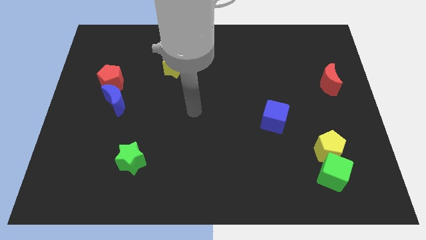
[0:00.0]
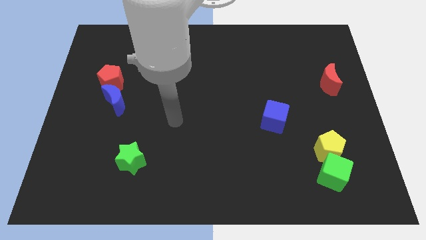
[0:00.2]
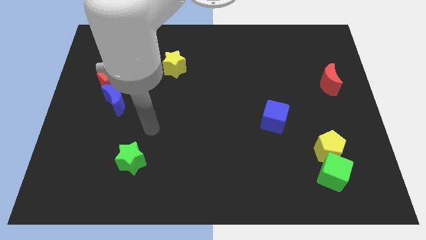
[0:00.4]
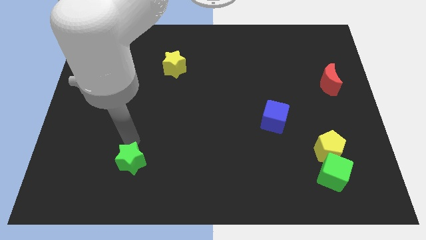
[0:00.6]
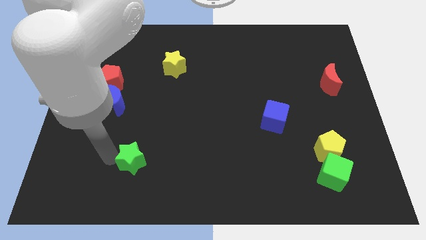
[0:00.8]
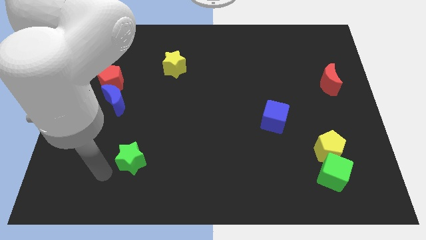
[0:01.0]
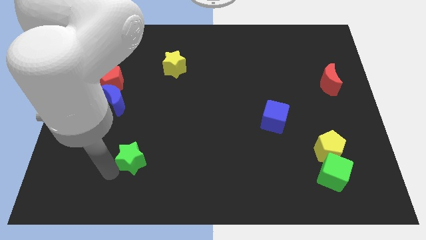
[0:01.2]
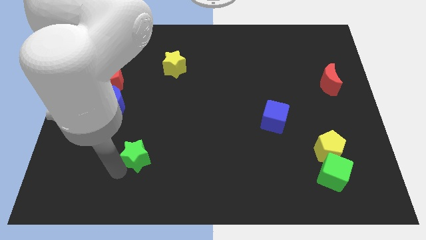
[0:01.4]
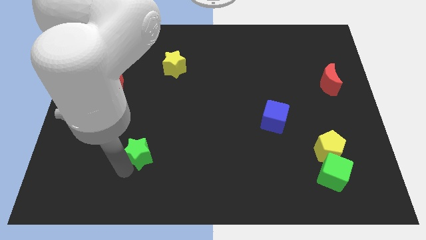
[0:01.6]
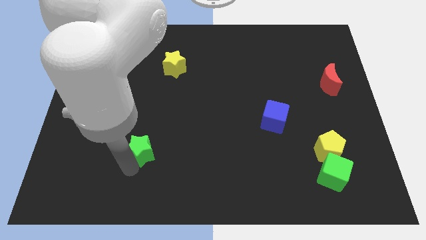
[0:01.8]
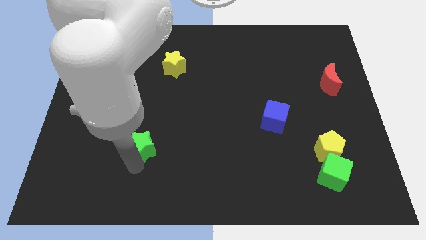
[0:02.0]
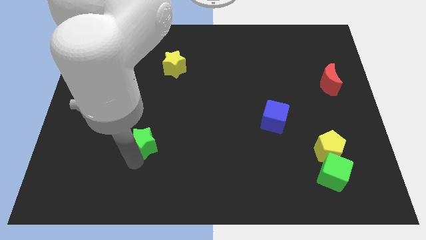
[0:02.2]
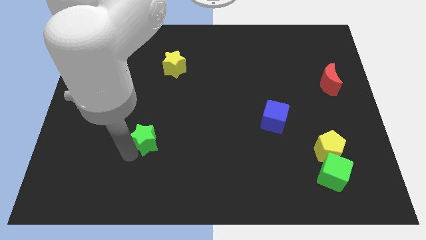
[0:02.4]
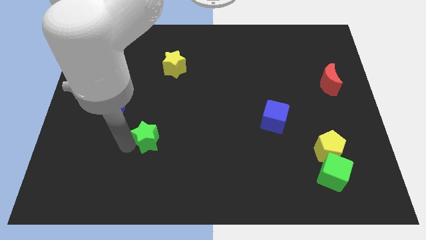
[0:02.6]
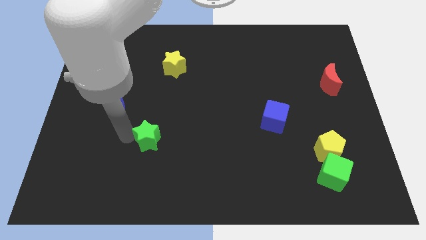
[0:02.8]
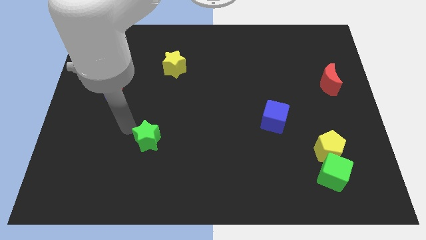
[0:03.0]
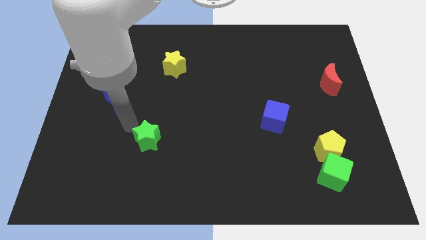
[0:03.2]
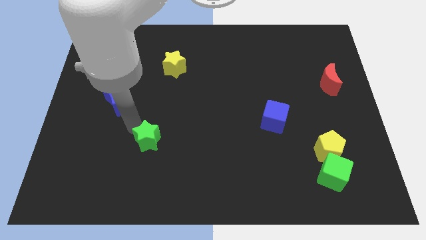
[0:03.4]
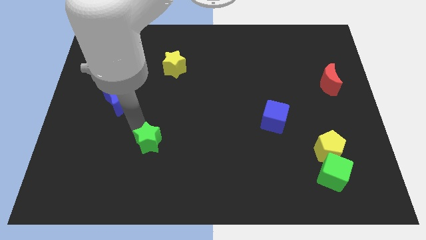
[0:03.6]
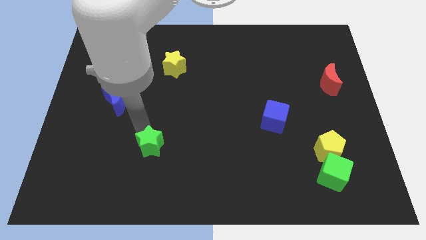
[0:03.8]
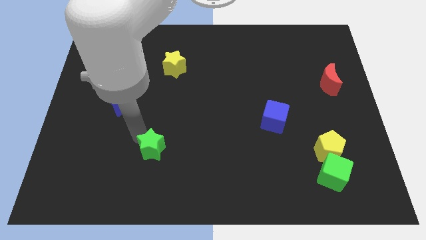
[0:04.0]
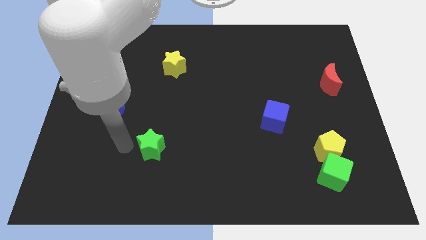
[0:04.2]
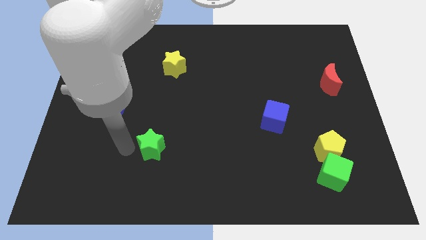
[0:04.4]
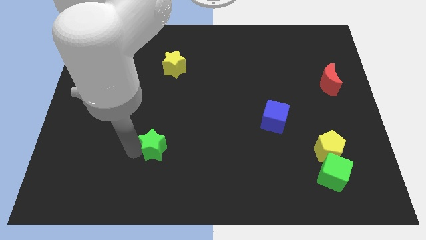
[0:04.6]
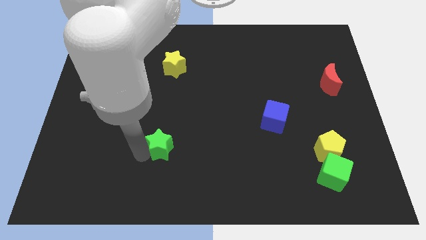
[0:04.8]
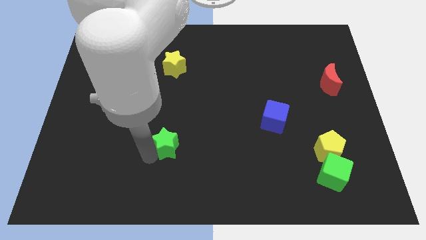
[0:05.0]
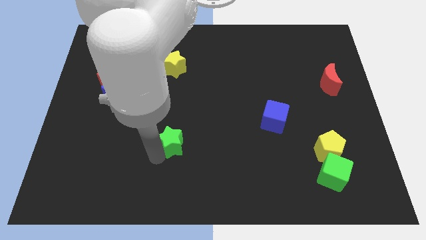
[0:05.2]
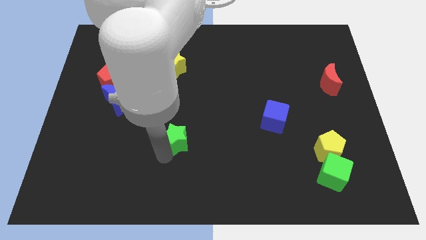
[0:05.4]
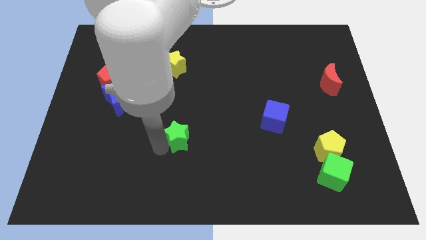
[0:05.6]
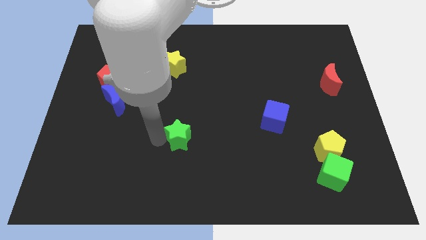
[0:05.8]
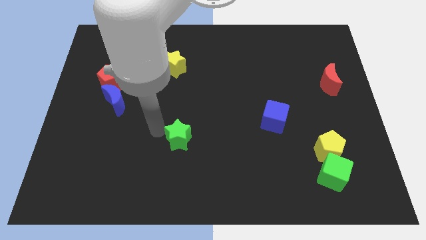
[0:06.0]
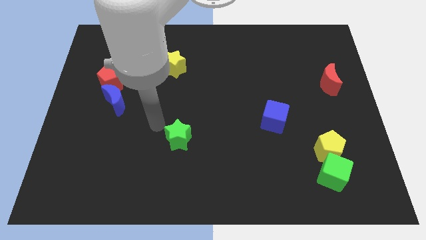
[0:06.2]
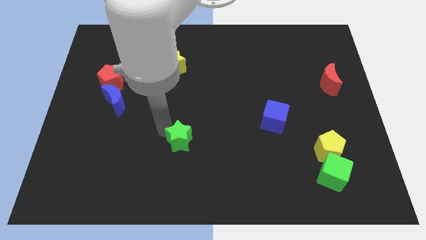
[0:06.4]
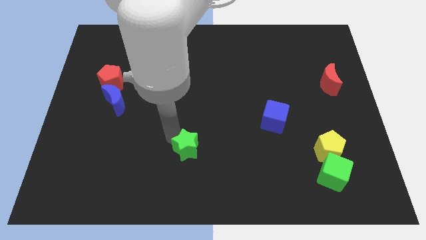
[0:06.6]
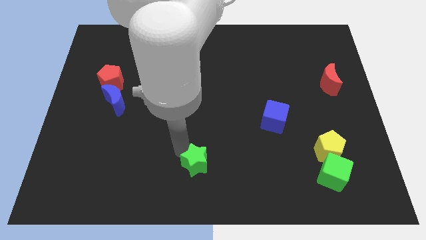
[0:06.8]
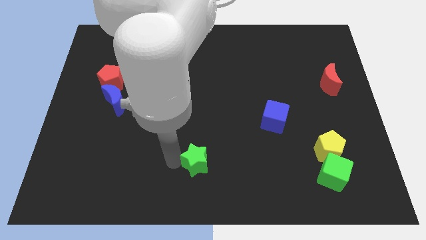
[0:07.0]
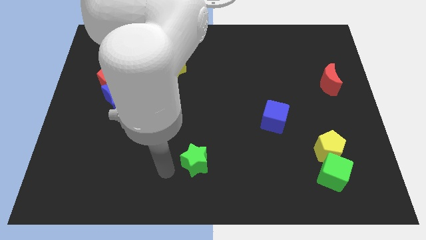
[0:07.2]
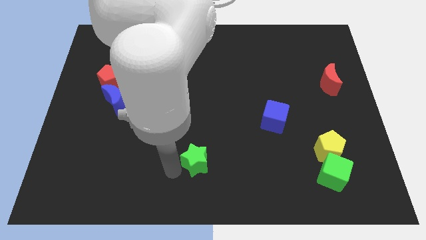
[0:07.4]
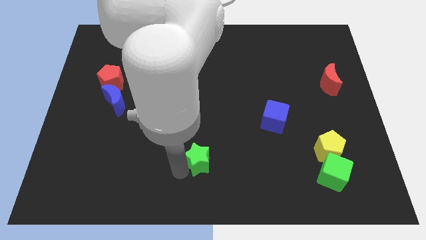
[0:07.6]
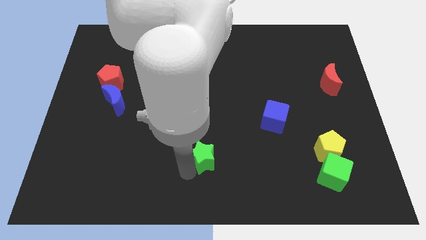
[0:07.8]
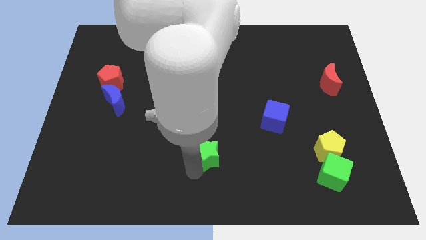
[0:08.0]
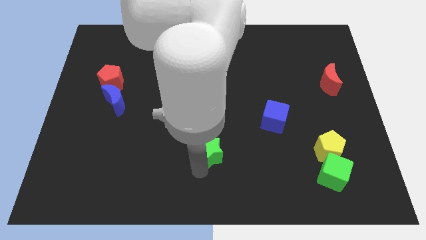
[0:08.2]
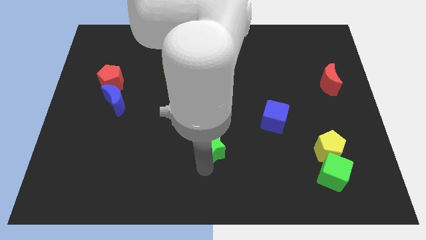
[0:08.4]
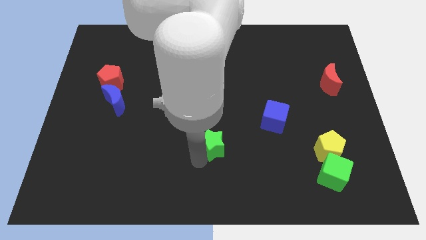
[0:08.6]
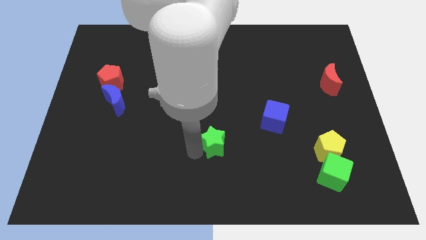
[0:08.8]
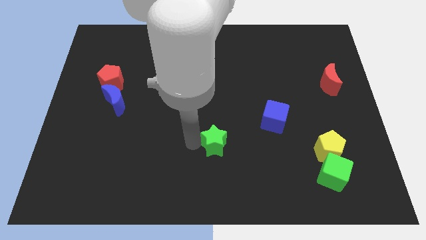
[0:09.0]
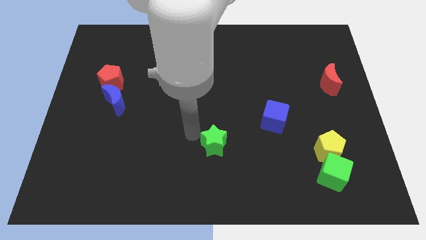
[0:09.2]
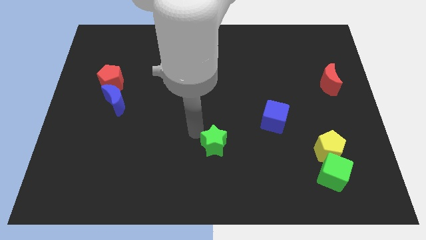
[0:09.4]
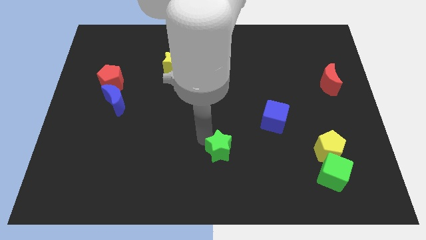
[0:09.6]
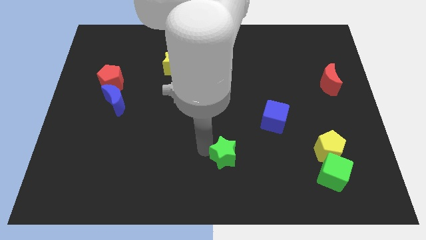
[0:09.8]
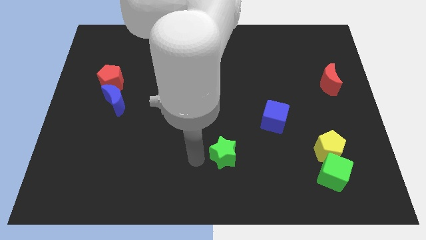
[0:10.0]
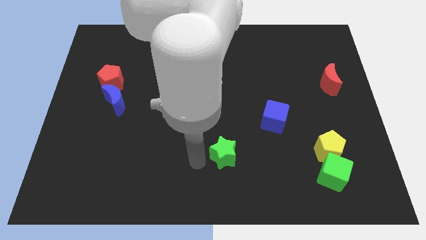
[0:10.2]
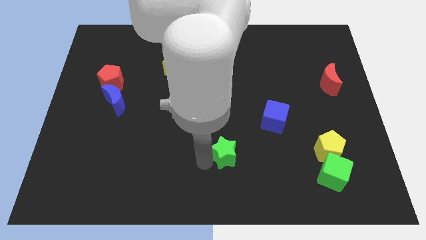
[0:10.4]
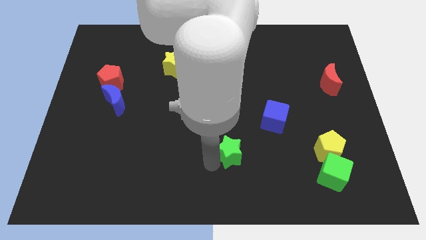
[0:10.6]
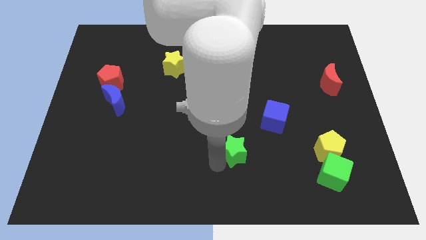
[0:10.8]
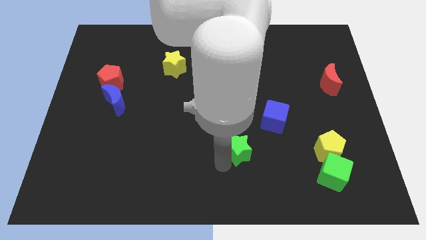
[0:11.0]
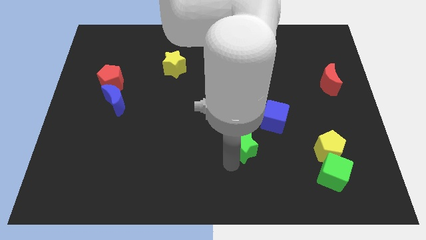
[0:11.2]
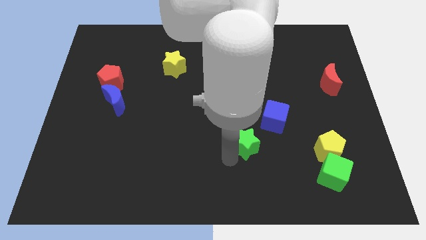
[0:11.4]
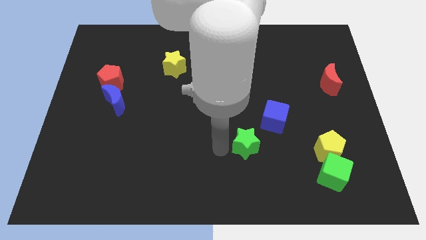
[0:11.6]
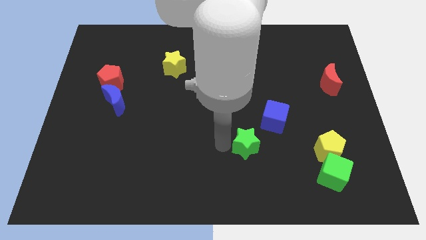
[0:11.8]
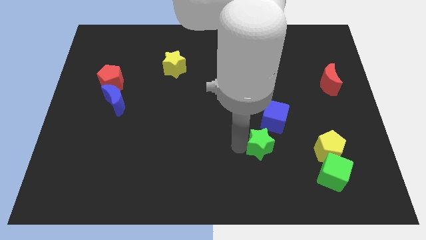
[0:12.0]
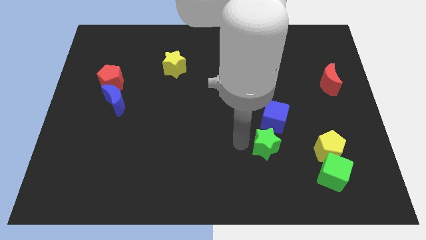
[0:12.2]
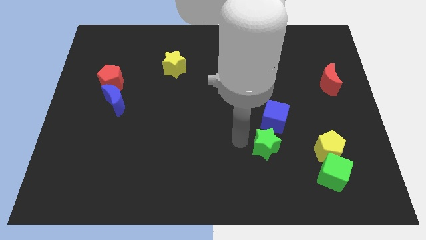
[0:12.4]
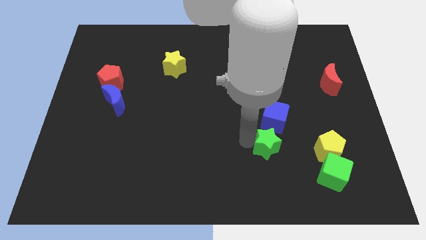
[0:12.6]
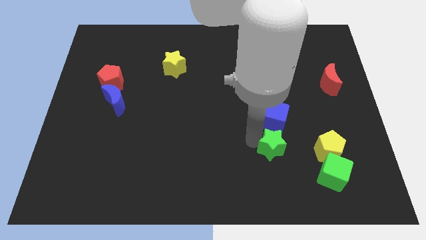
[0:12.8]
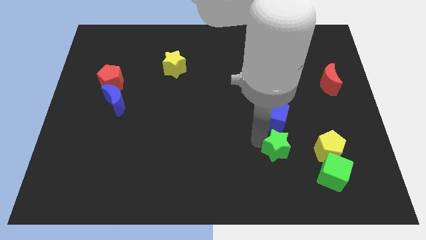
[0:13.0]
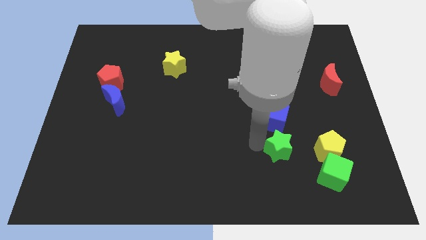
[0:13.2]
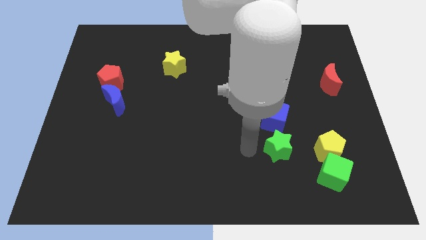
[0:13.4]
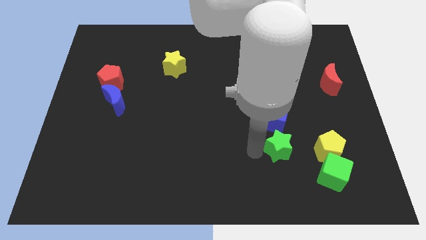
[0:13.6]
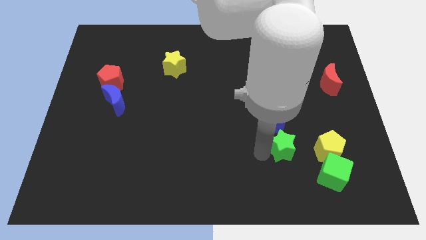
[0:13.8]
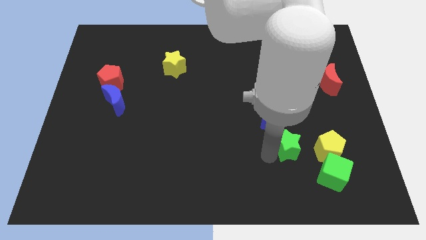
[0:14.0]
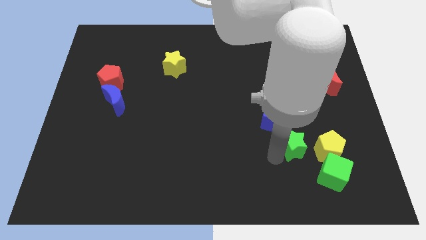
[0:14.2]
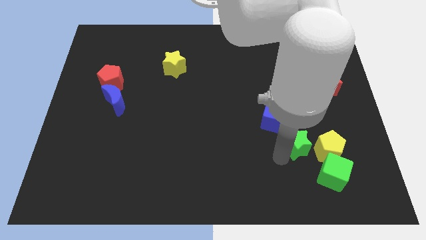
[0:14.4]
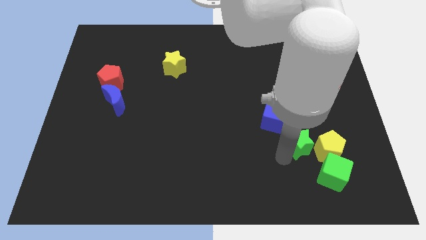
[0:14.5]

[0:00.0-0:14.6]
put the green star to the yellow pentagon
